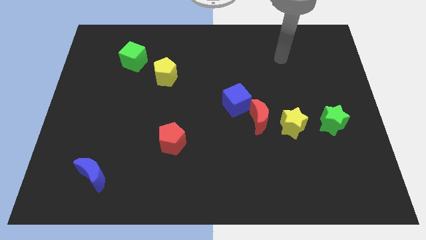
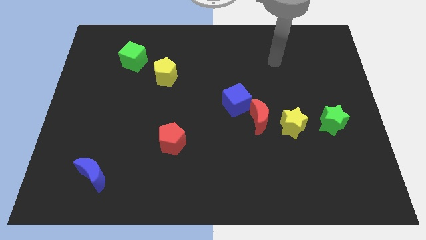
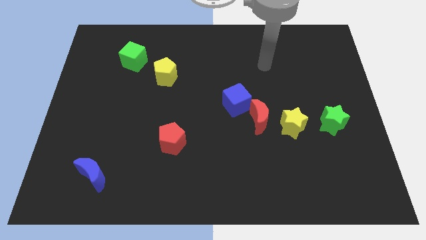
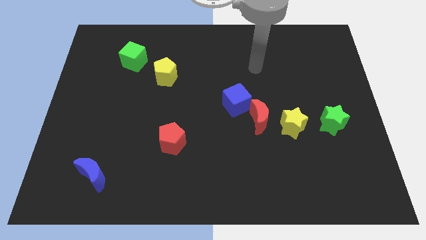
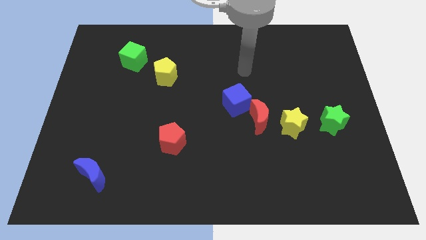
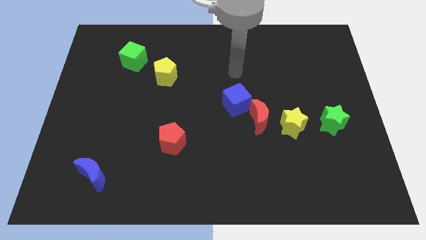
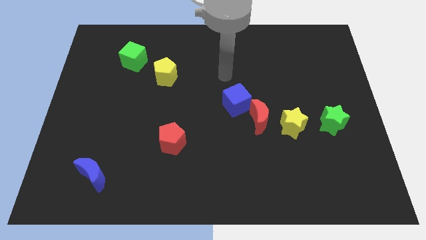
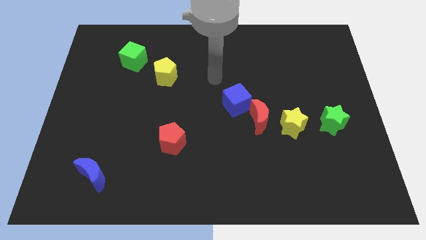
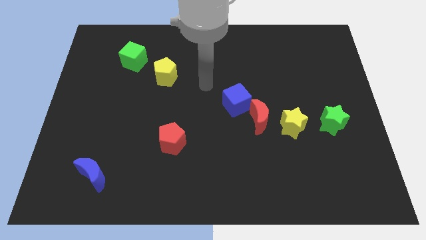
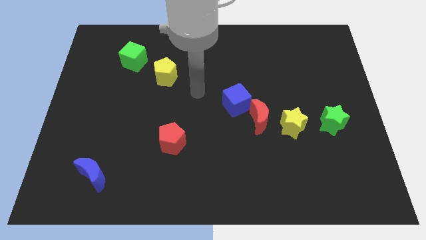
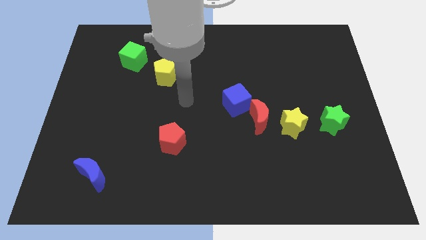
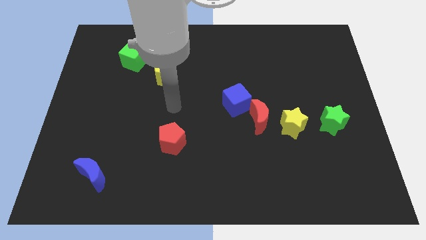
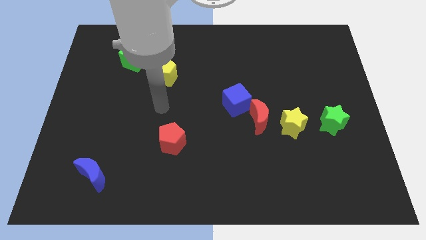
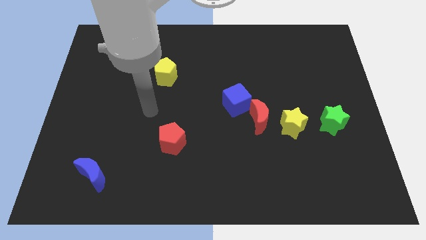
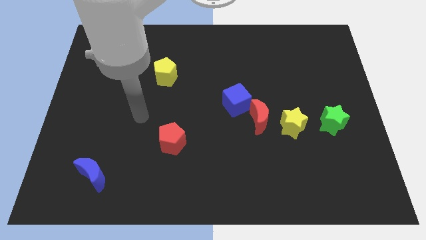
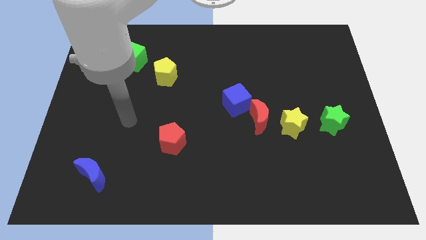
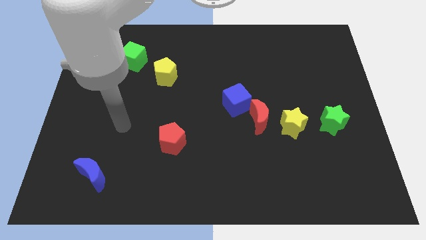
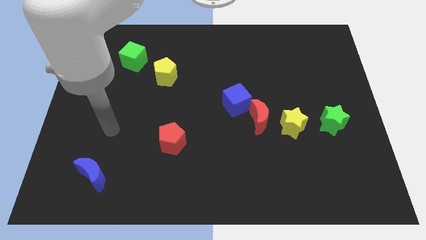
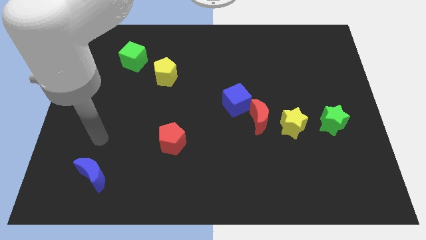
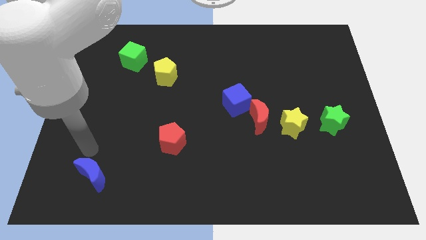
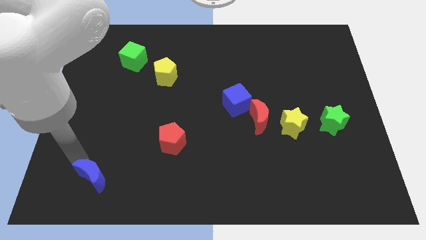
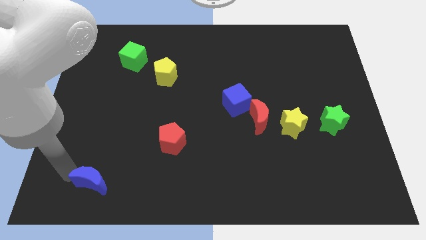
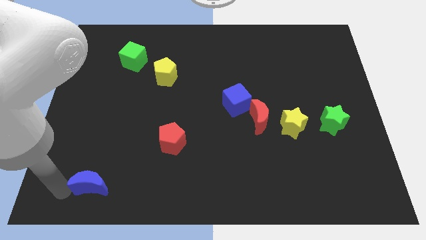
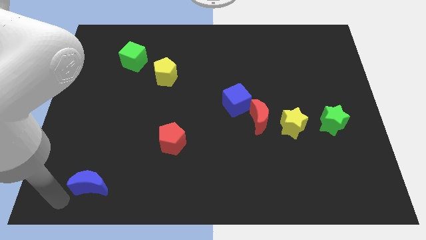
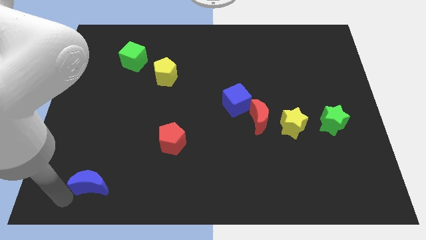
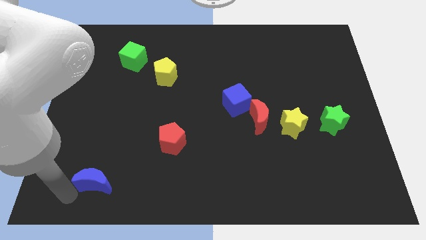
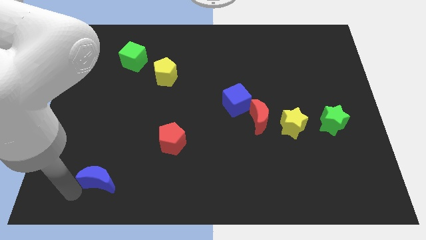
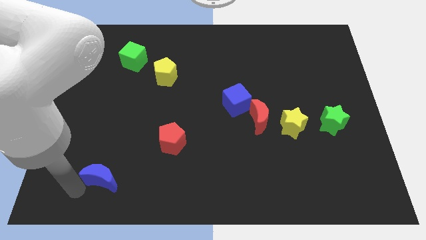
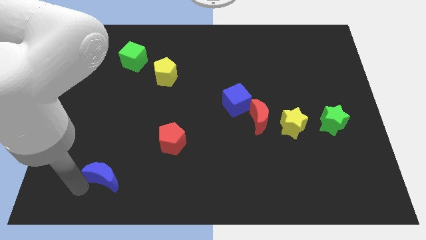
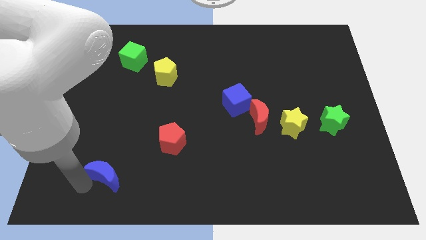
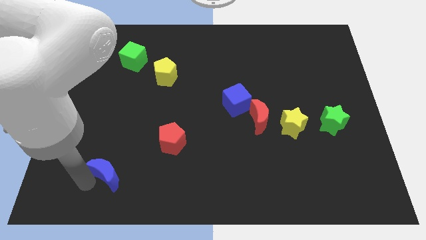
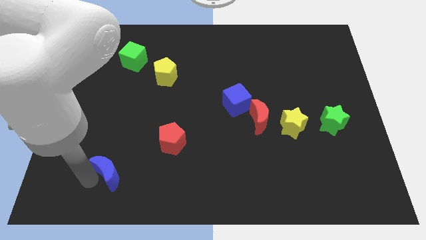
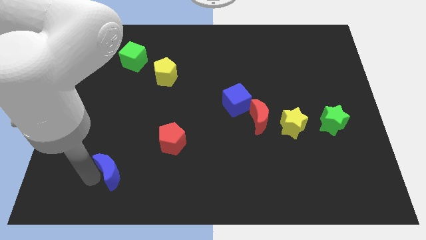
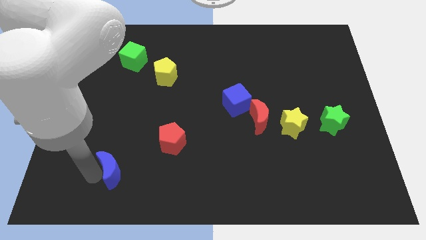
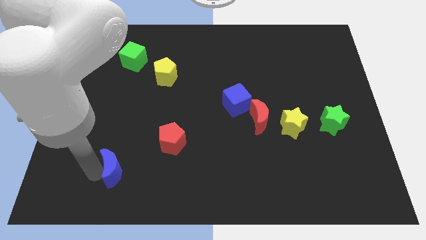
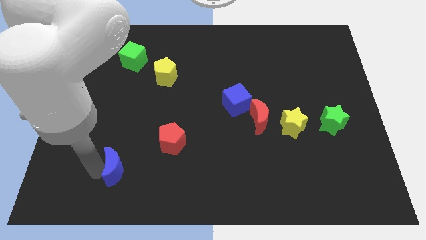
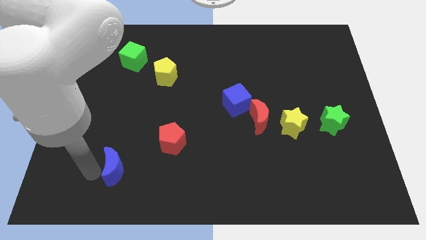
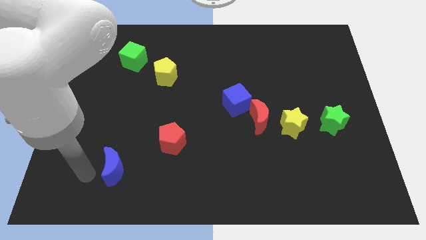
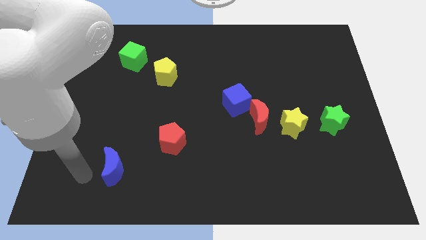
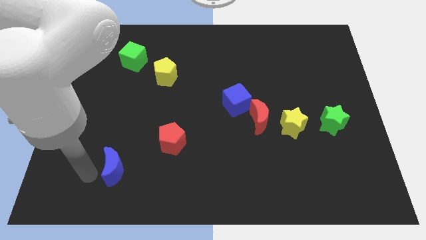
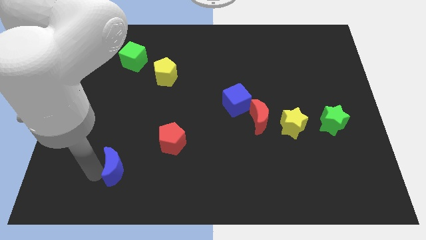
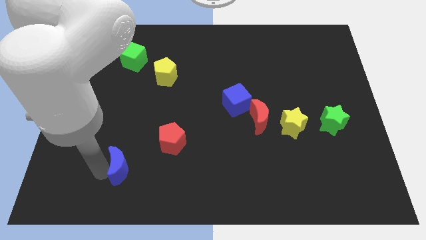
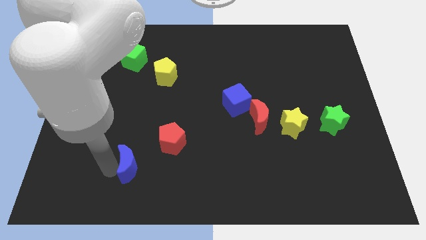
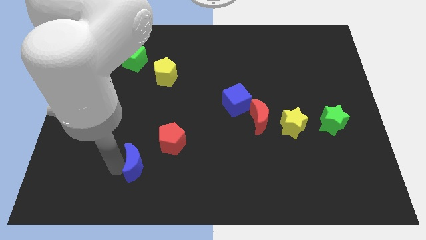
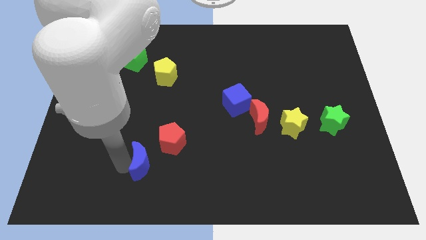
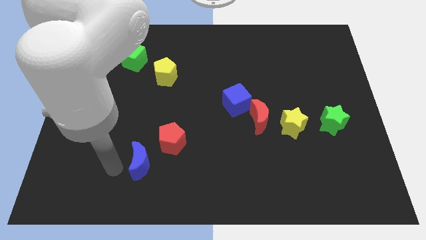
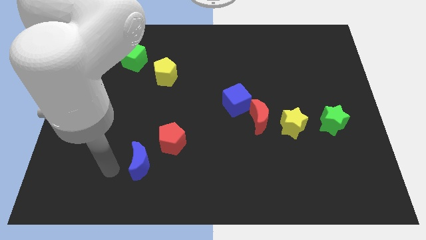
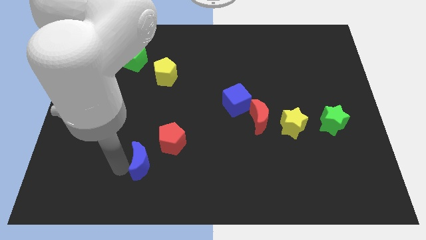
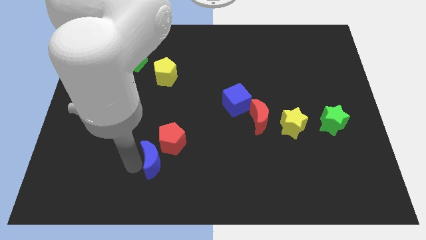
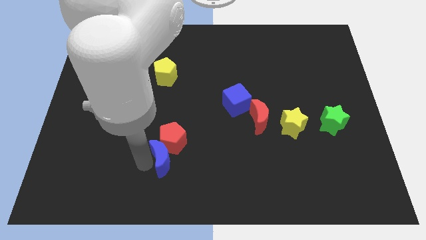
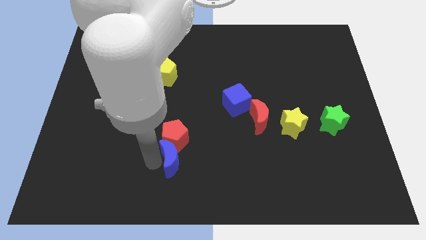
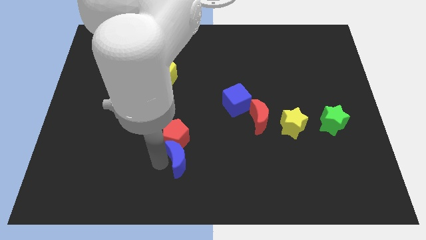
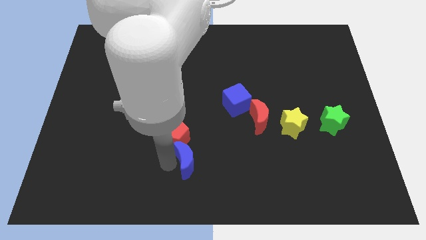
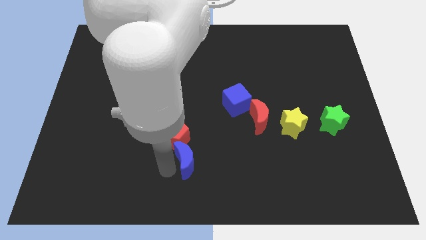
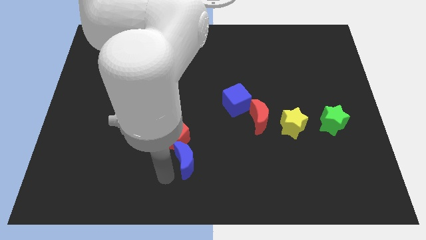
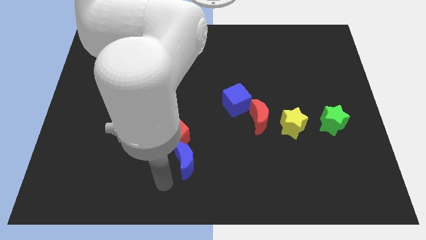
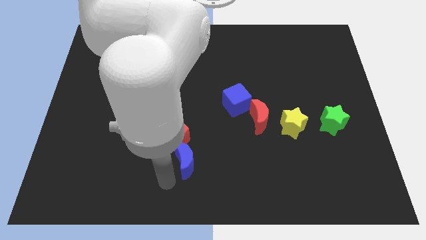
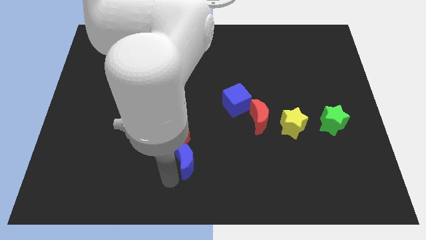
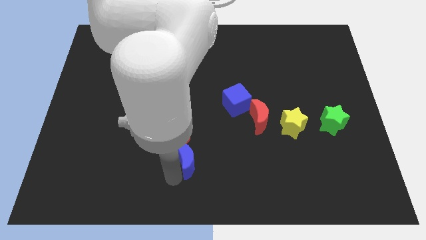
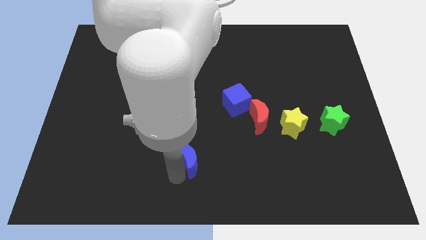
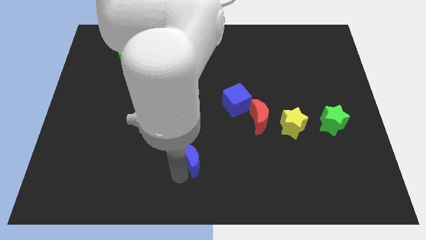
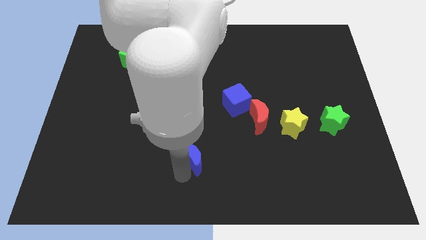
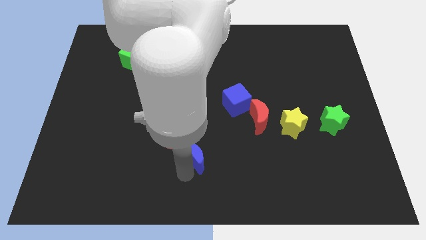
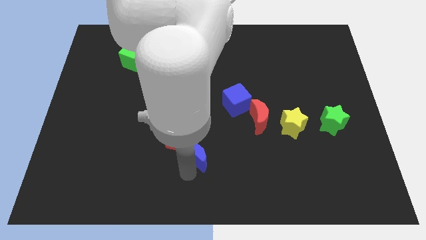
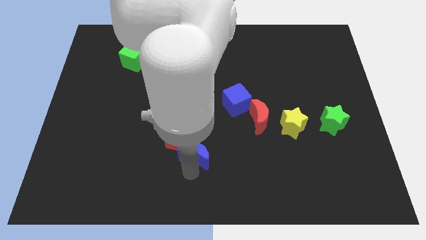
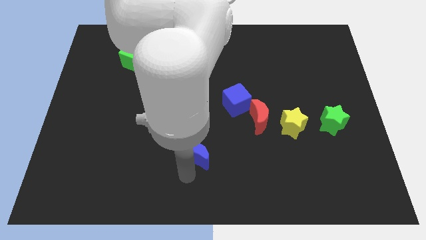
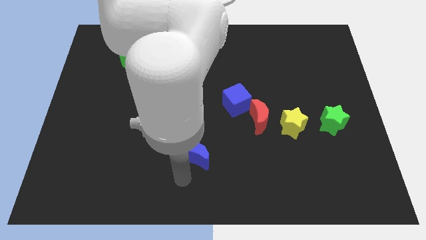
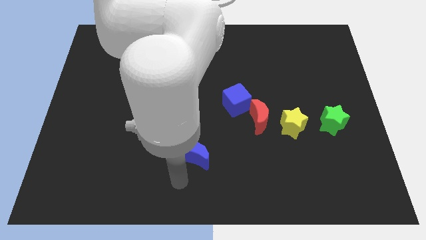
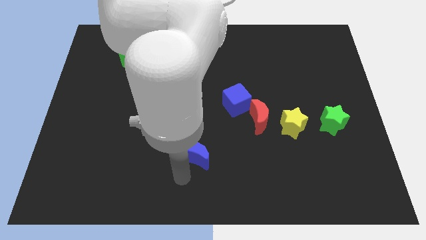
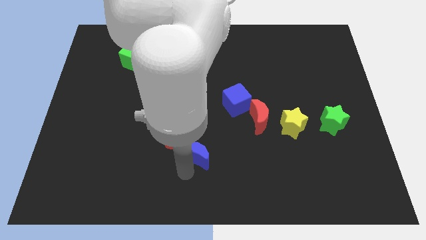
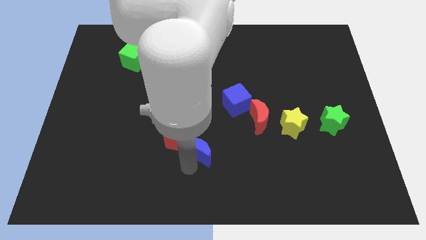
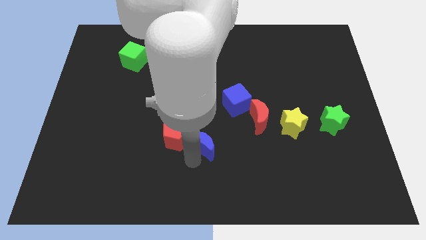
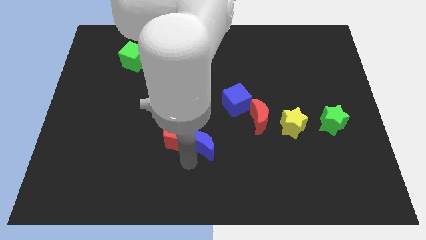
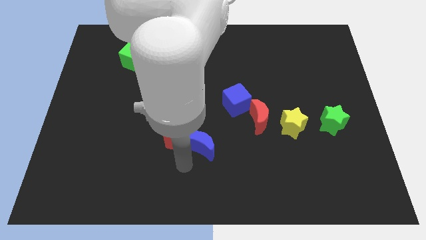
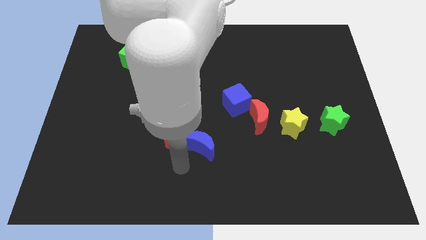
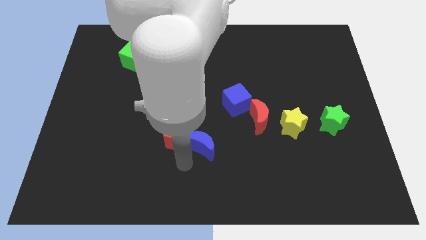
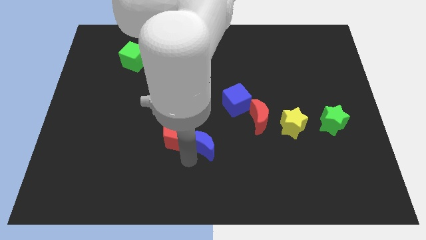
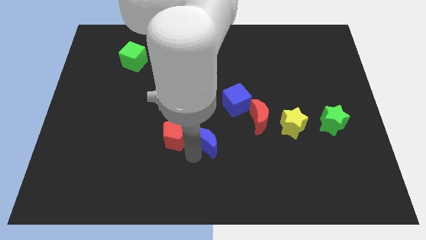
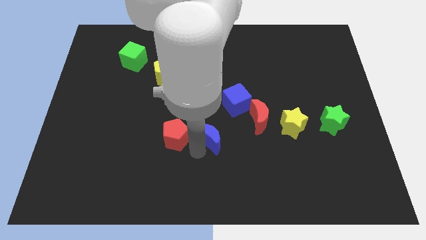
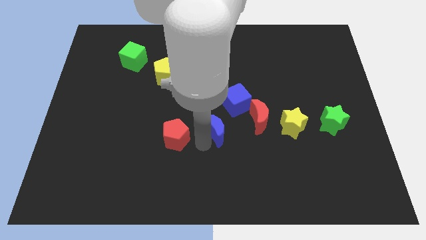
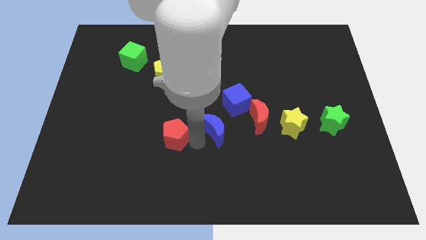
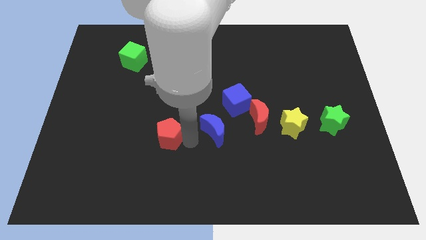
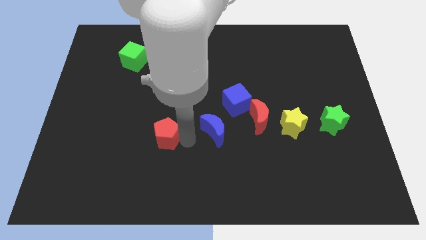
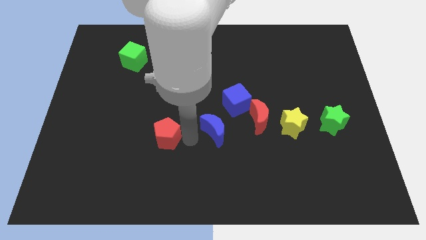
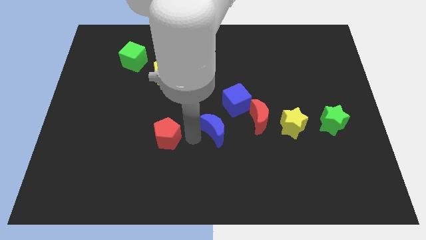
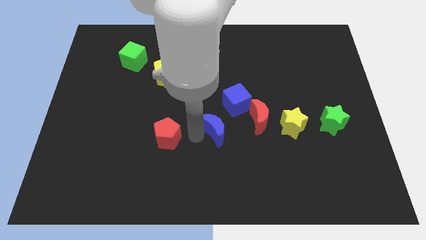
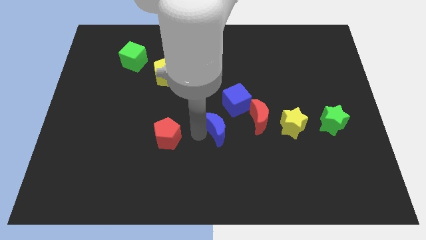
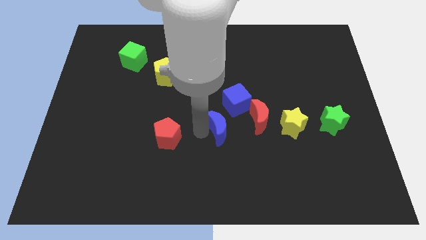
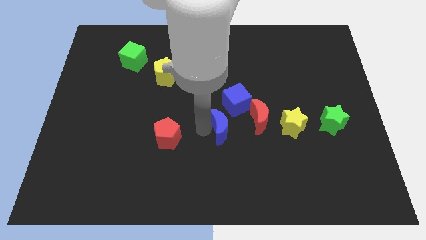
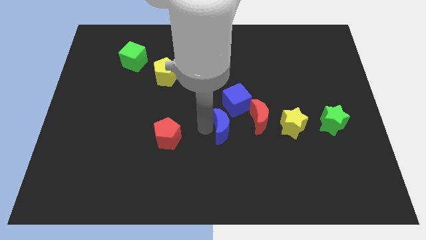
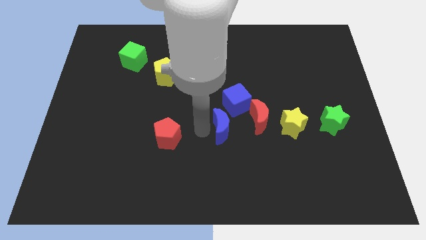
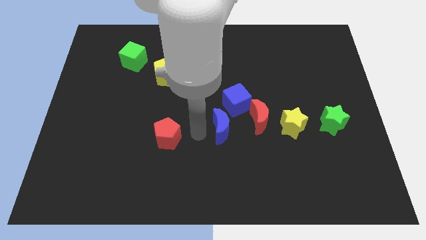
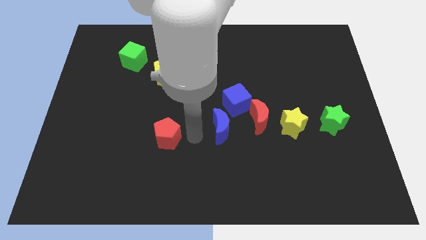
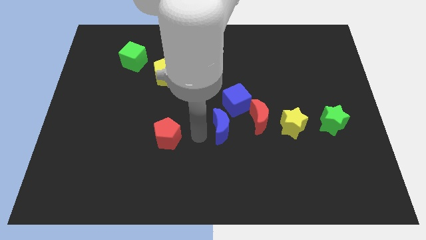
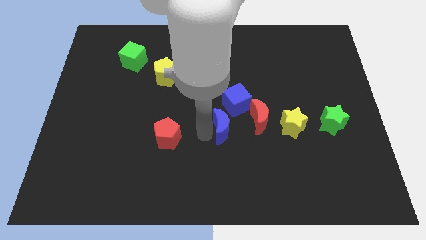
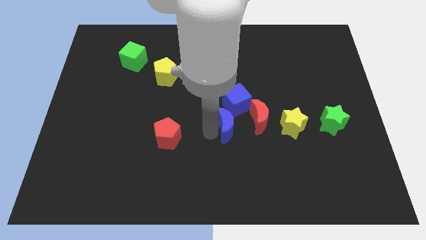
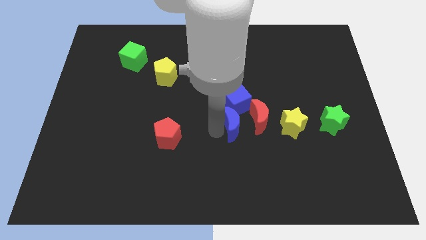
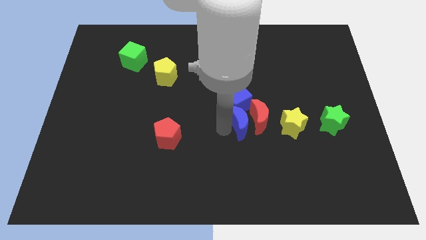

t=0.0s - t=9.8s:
put the blue moon close to the red moon
